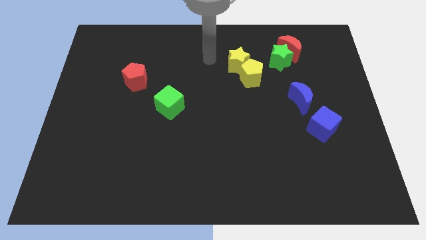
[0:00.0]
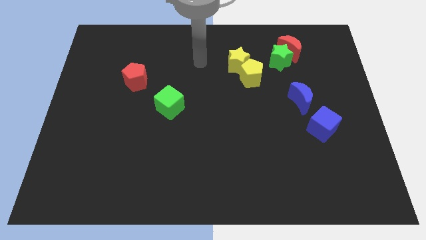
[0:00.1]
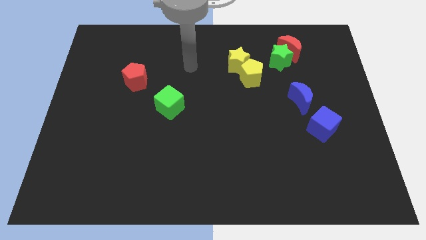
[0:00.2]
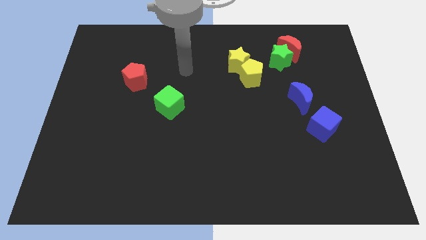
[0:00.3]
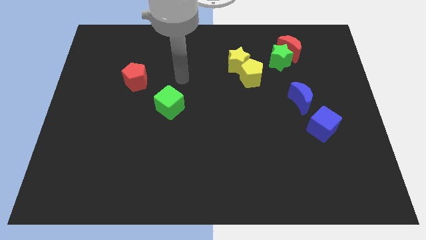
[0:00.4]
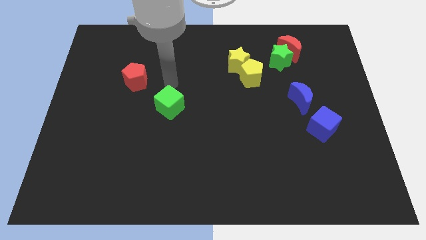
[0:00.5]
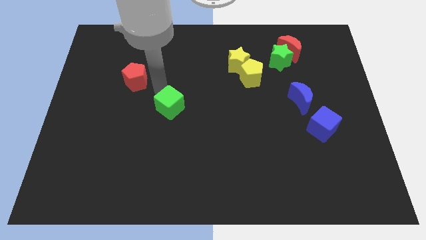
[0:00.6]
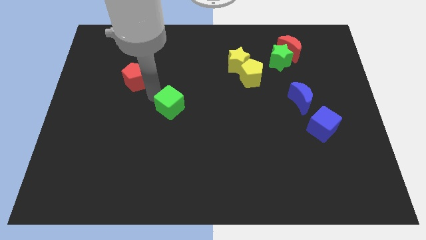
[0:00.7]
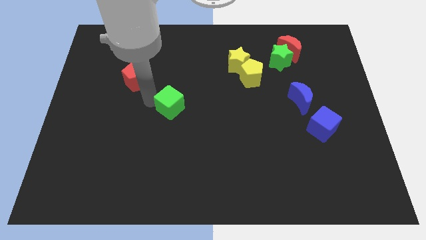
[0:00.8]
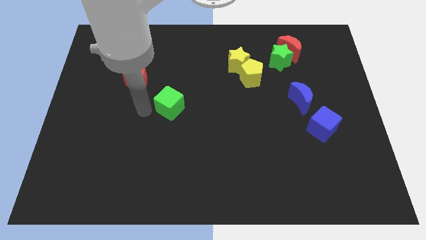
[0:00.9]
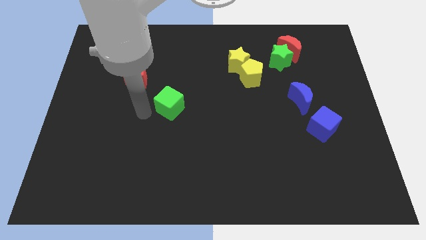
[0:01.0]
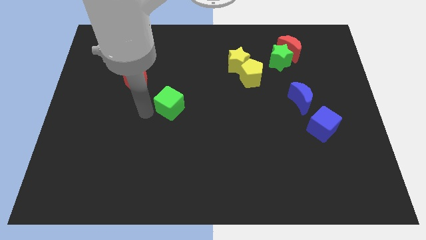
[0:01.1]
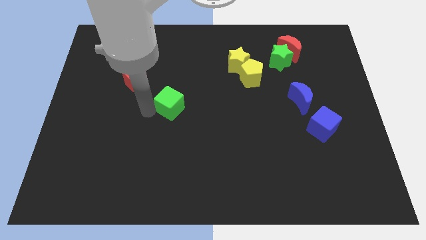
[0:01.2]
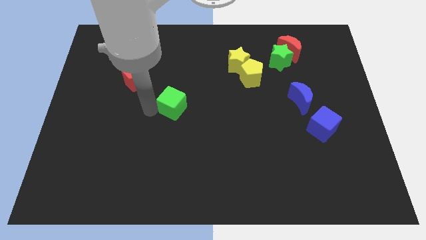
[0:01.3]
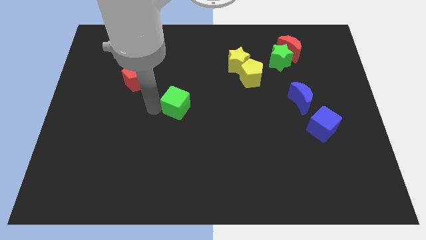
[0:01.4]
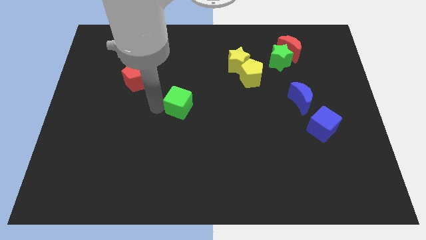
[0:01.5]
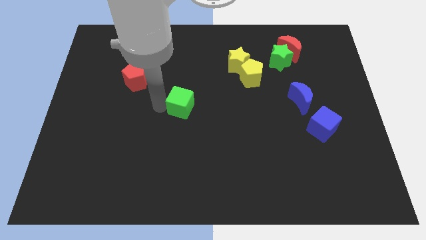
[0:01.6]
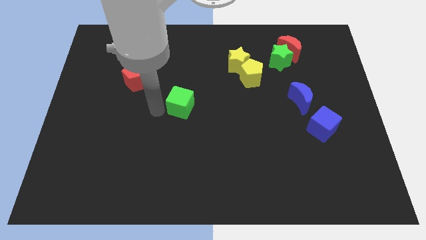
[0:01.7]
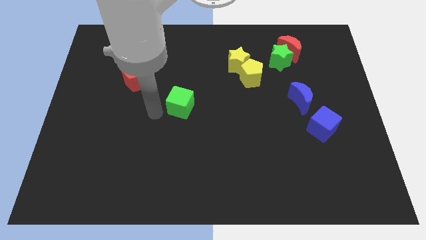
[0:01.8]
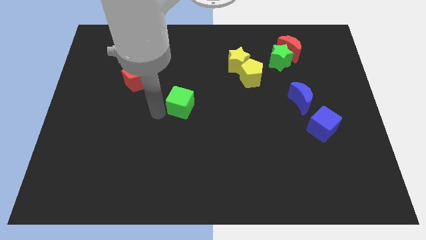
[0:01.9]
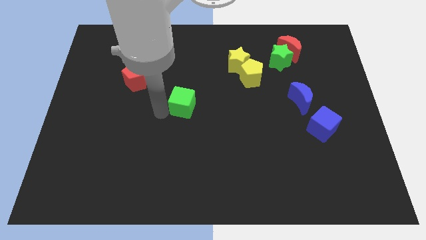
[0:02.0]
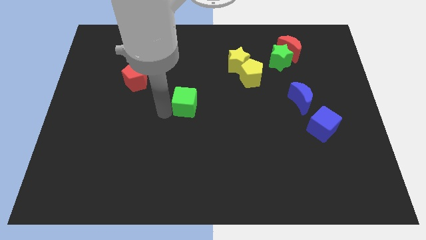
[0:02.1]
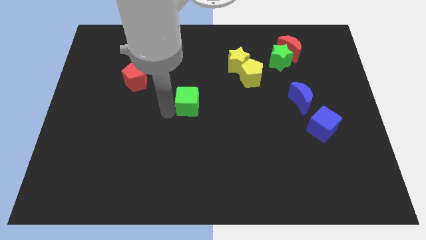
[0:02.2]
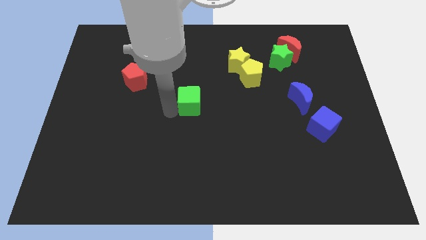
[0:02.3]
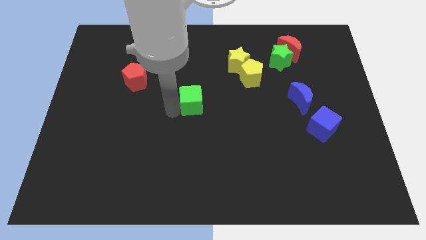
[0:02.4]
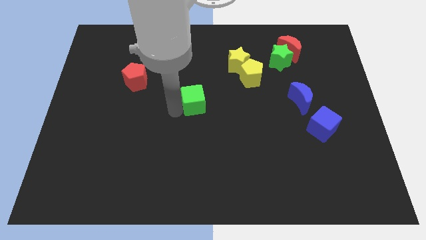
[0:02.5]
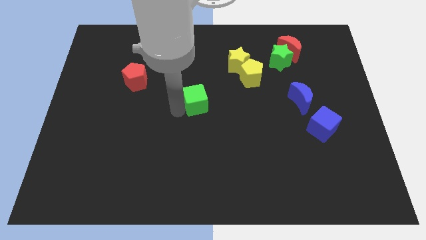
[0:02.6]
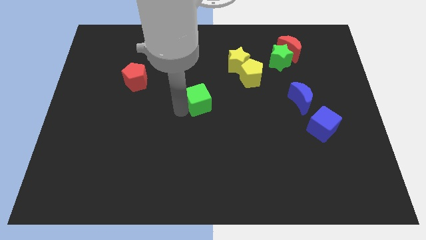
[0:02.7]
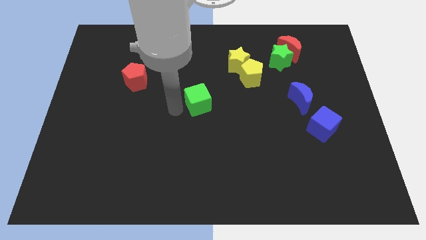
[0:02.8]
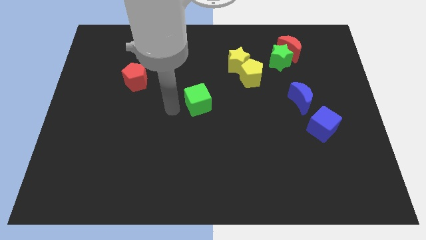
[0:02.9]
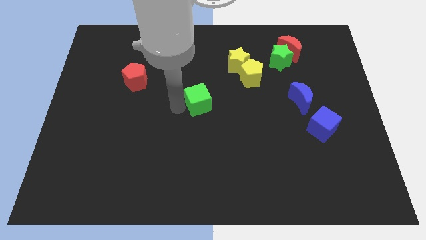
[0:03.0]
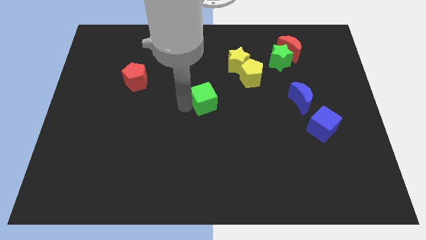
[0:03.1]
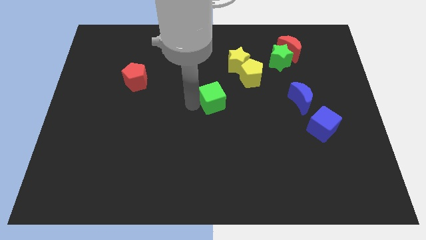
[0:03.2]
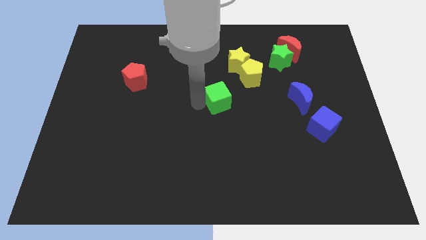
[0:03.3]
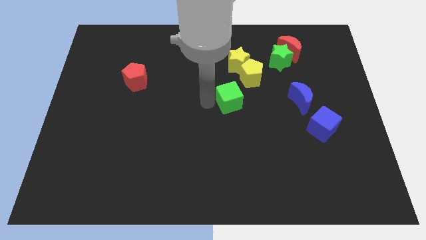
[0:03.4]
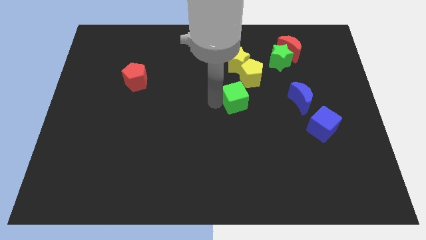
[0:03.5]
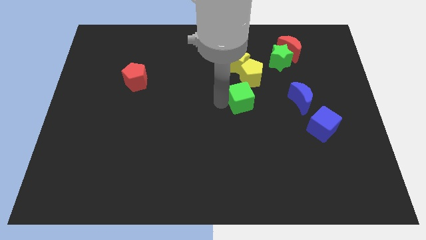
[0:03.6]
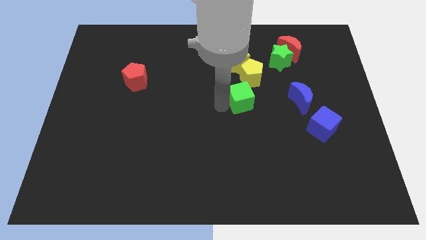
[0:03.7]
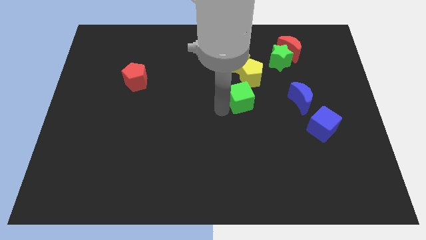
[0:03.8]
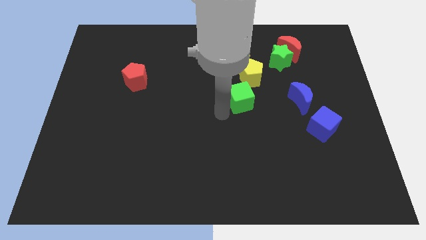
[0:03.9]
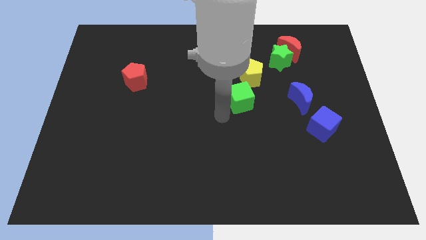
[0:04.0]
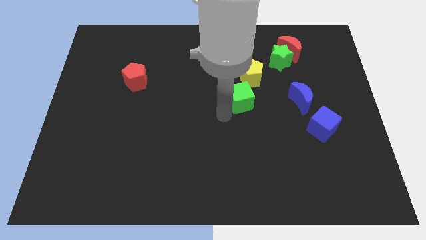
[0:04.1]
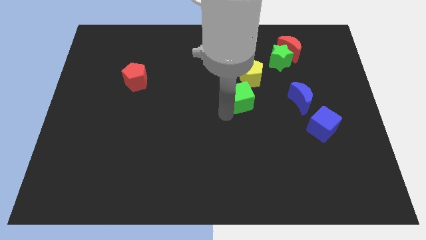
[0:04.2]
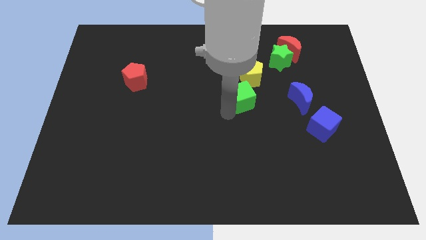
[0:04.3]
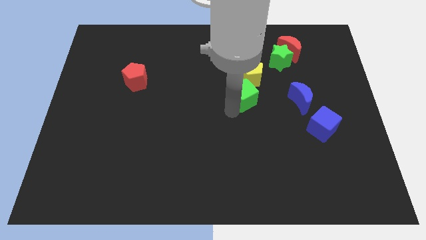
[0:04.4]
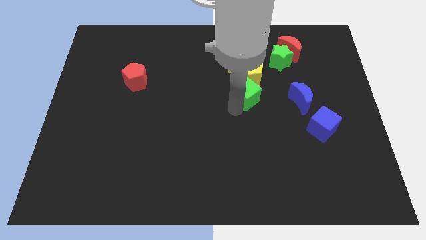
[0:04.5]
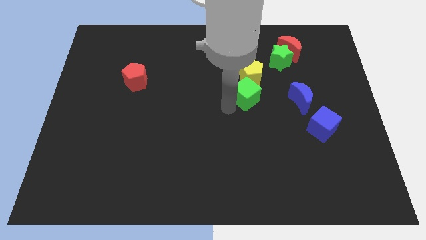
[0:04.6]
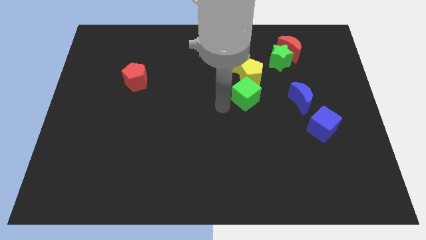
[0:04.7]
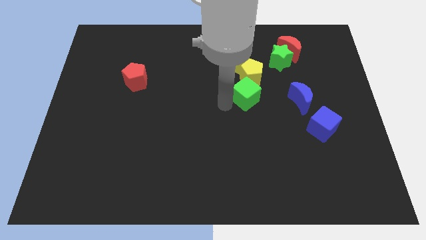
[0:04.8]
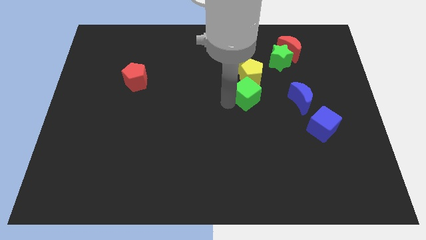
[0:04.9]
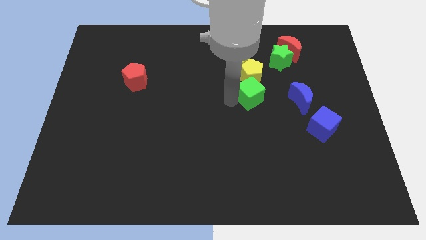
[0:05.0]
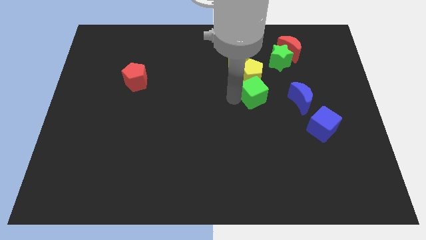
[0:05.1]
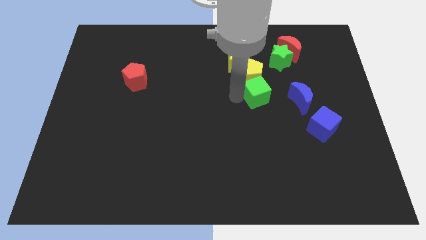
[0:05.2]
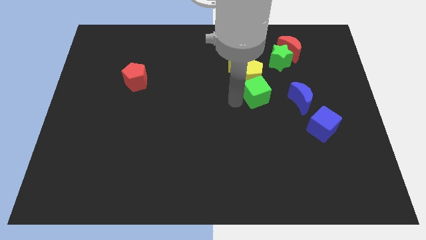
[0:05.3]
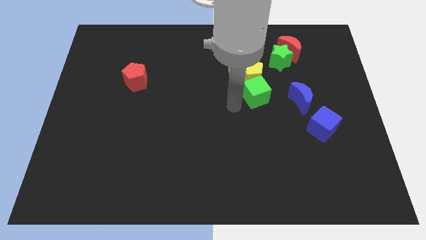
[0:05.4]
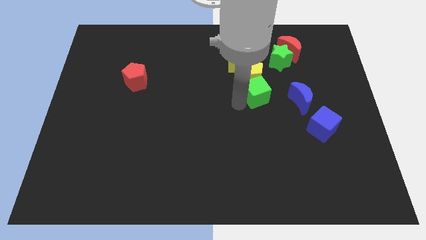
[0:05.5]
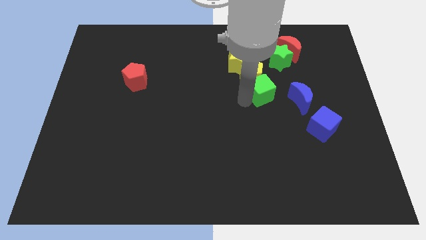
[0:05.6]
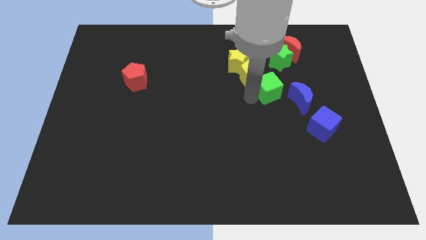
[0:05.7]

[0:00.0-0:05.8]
put the green cube to the top left of the blue moon
